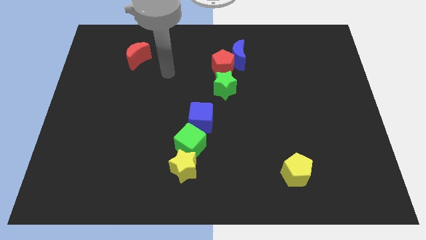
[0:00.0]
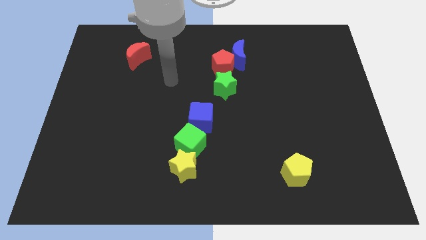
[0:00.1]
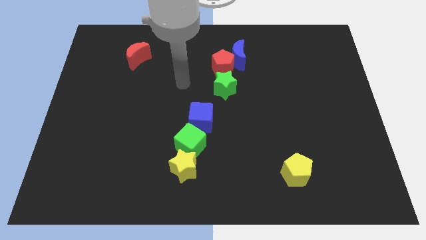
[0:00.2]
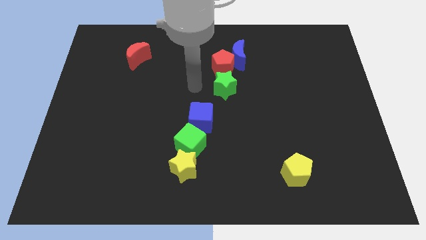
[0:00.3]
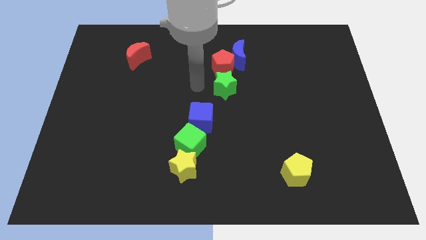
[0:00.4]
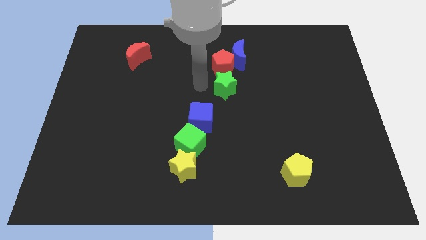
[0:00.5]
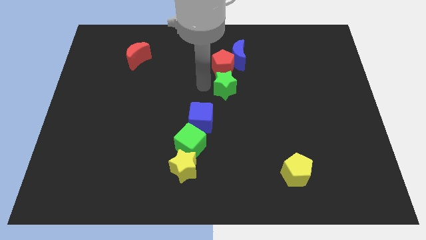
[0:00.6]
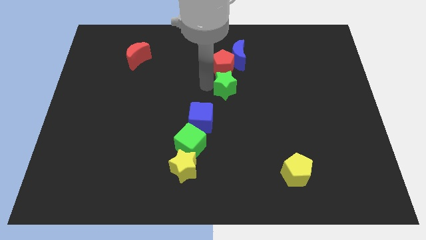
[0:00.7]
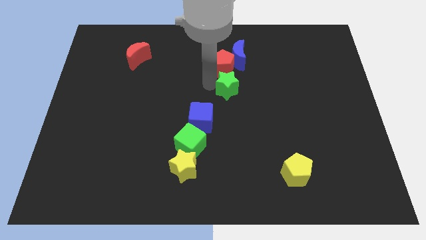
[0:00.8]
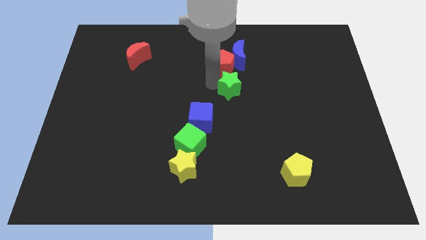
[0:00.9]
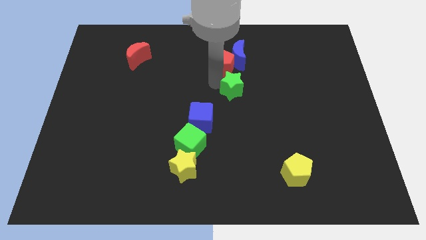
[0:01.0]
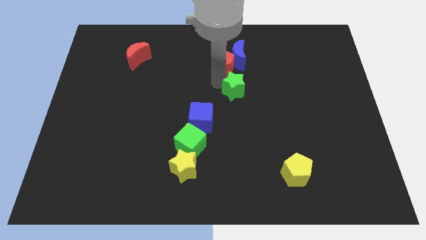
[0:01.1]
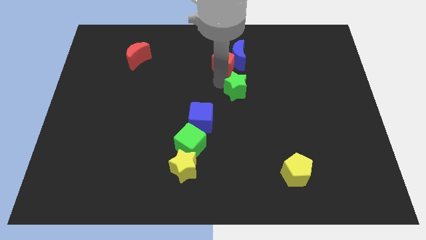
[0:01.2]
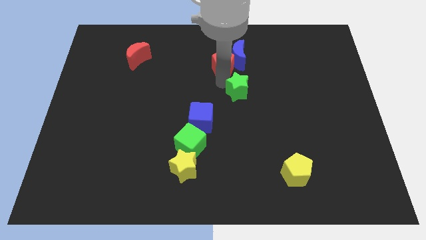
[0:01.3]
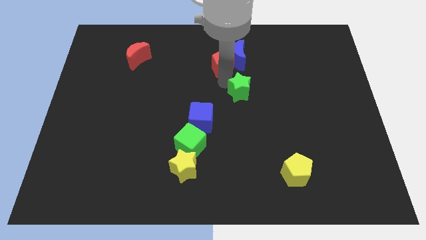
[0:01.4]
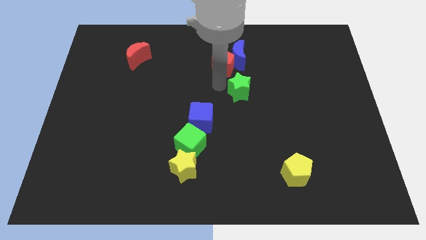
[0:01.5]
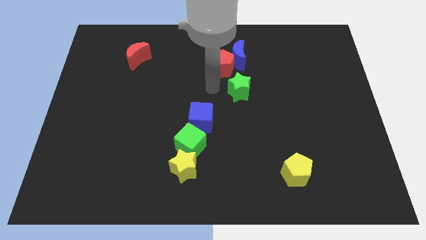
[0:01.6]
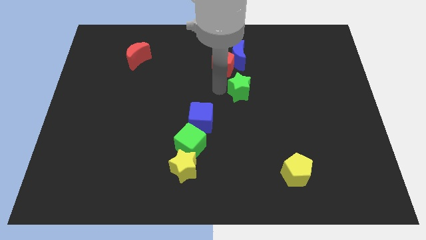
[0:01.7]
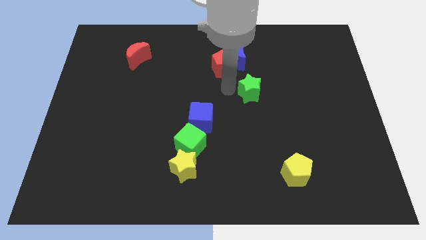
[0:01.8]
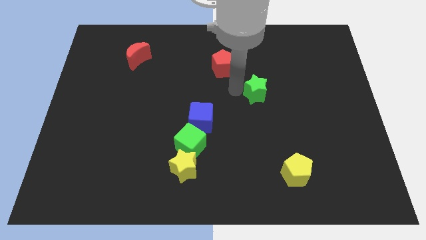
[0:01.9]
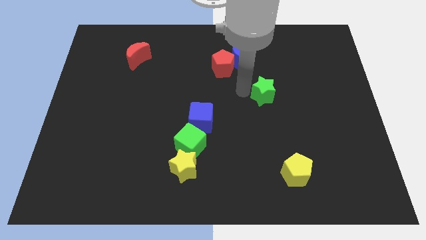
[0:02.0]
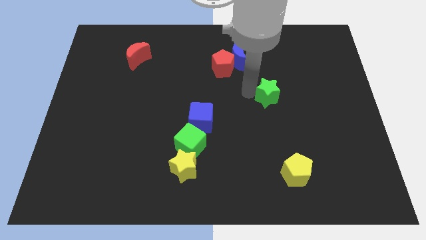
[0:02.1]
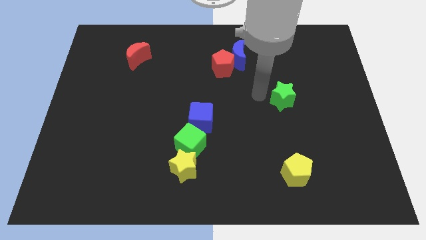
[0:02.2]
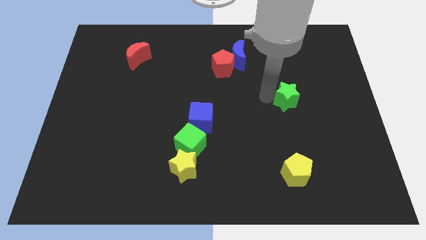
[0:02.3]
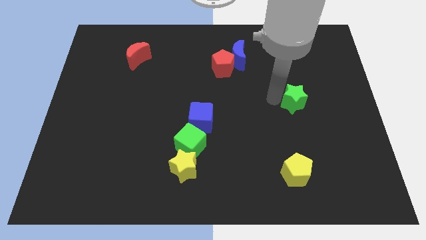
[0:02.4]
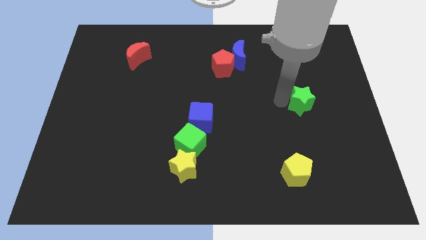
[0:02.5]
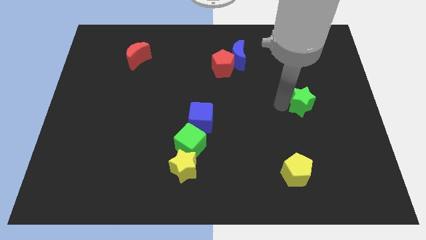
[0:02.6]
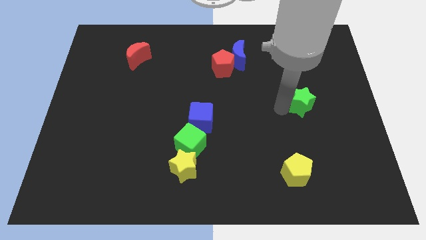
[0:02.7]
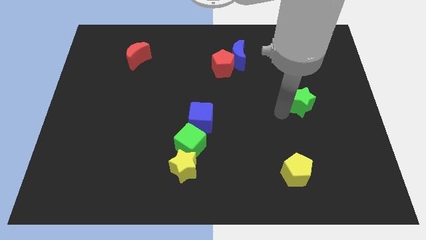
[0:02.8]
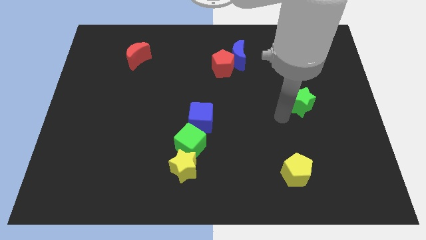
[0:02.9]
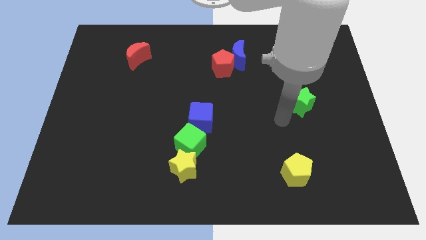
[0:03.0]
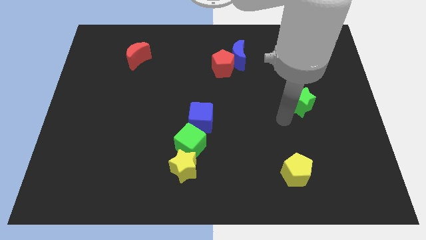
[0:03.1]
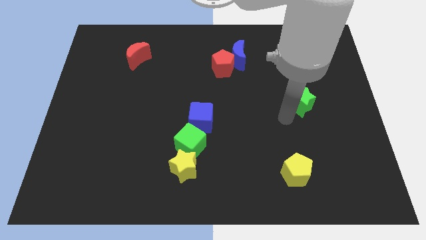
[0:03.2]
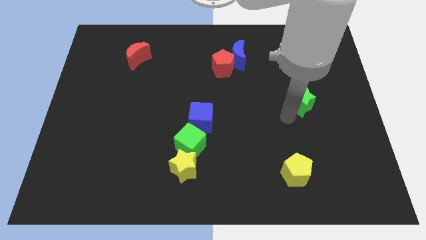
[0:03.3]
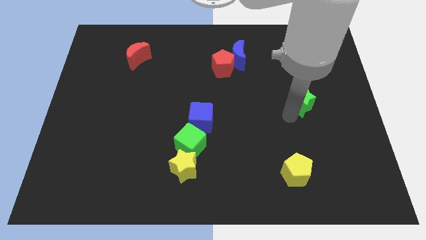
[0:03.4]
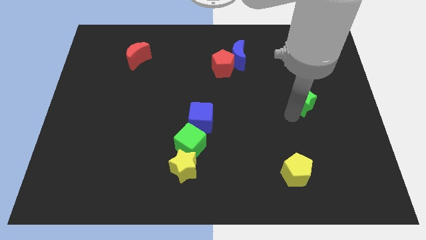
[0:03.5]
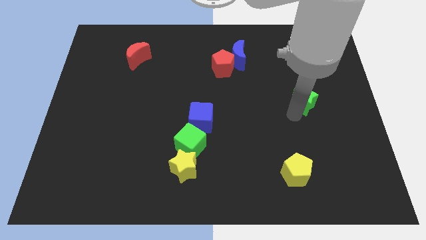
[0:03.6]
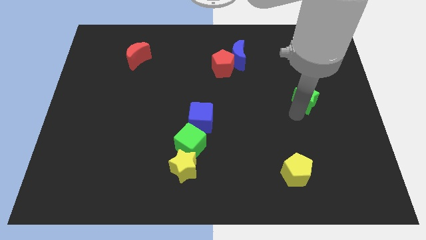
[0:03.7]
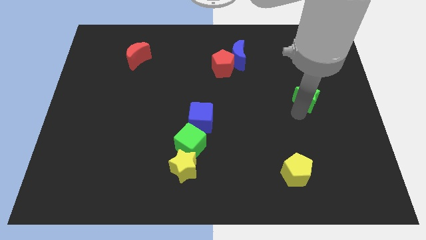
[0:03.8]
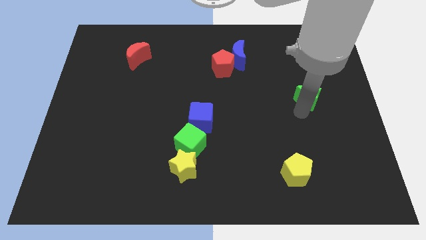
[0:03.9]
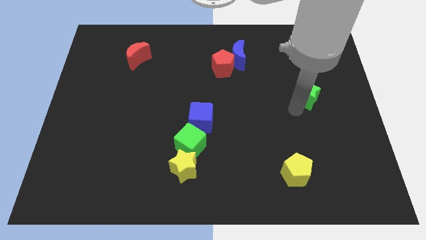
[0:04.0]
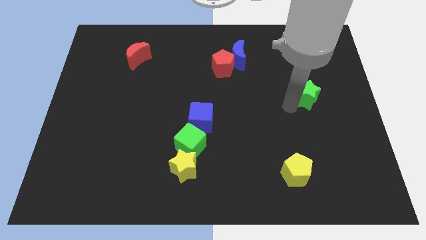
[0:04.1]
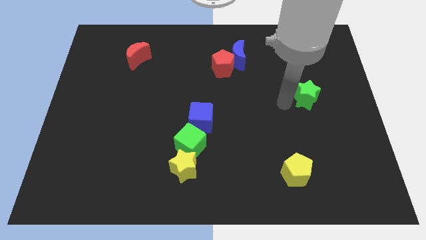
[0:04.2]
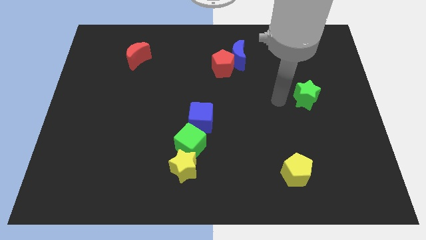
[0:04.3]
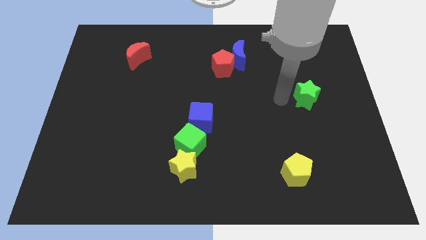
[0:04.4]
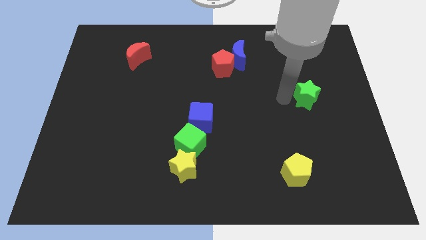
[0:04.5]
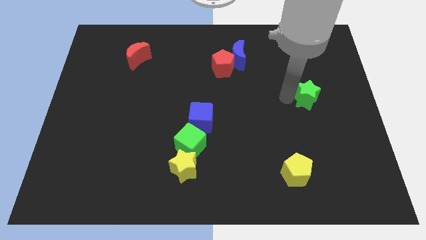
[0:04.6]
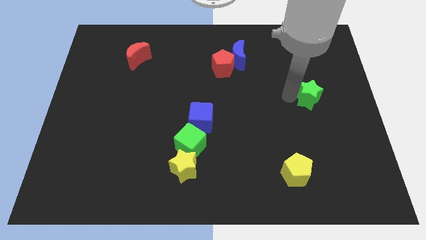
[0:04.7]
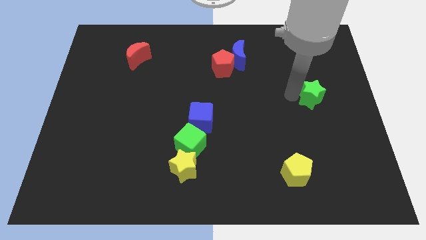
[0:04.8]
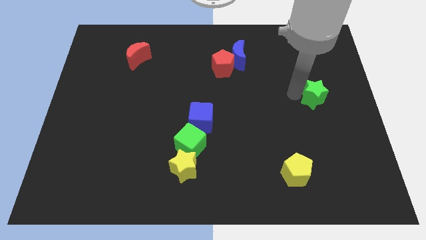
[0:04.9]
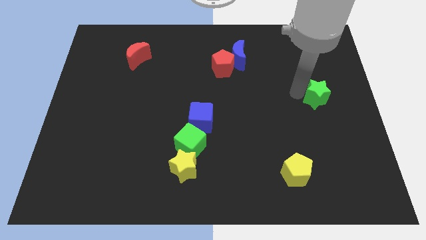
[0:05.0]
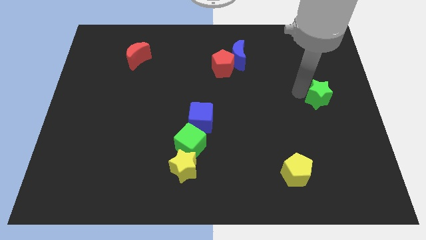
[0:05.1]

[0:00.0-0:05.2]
move the green star to the right side of the board
